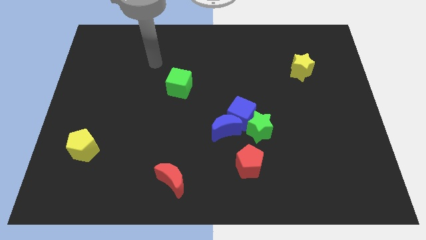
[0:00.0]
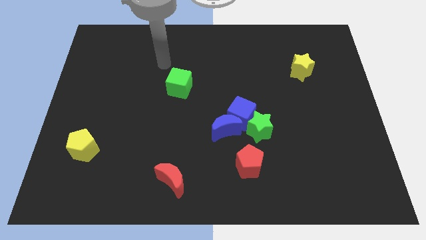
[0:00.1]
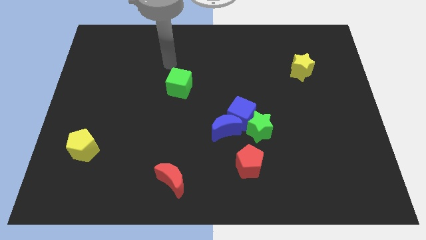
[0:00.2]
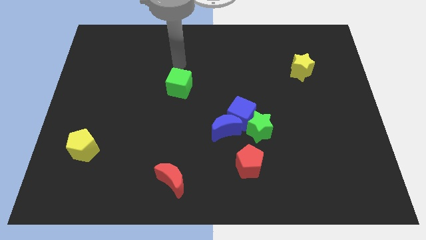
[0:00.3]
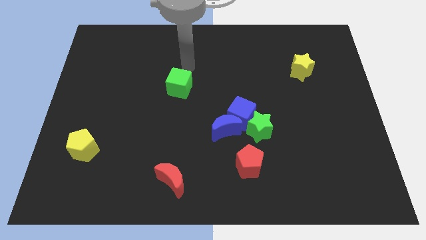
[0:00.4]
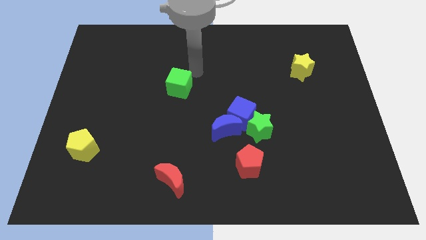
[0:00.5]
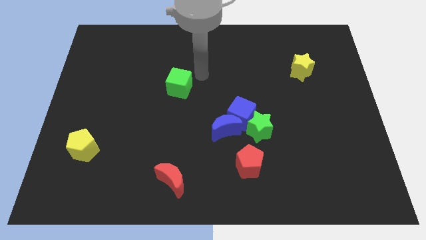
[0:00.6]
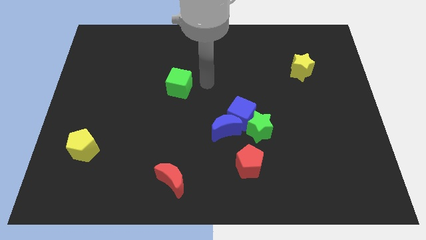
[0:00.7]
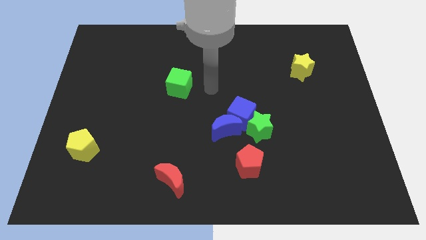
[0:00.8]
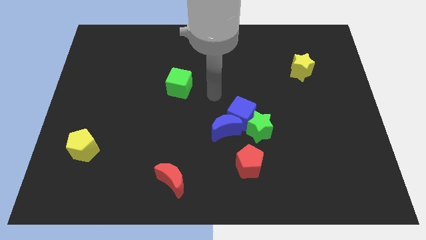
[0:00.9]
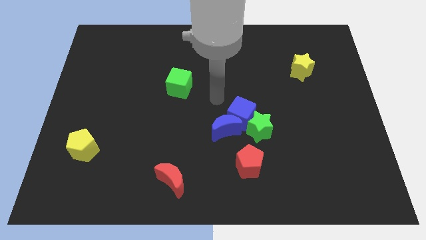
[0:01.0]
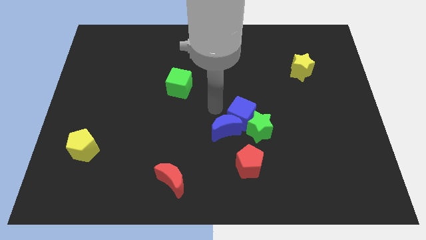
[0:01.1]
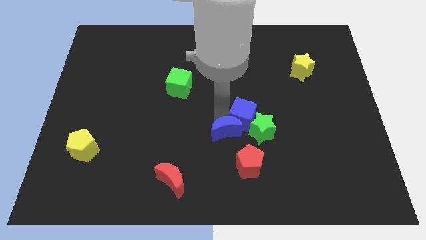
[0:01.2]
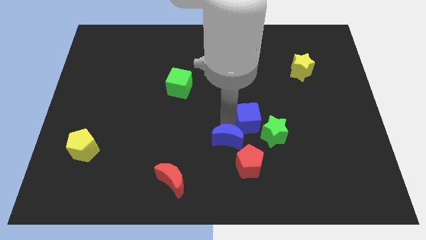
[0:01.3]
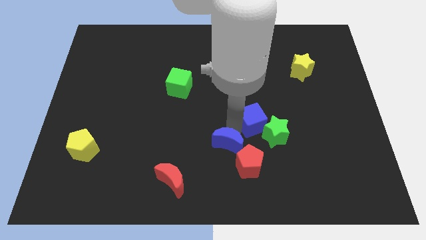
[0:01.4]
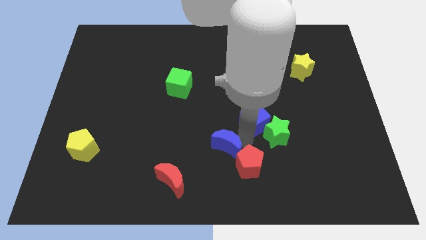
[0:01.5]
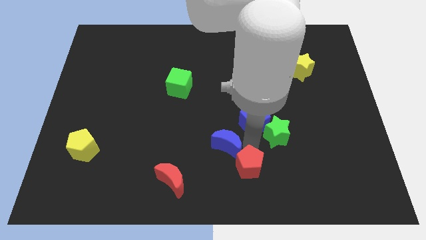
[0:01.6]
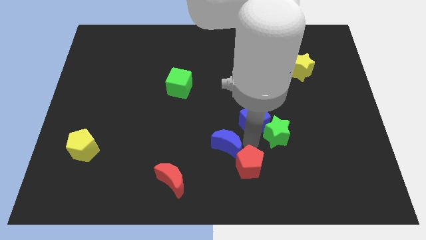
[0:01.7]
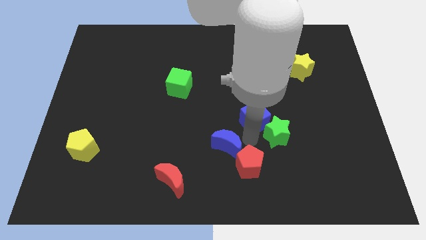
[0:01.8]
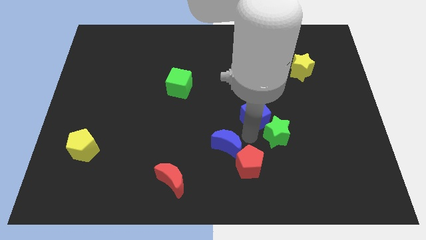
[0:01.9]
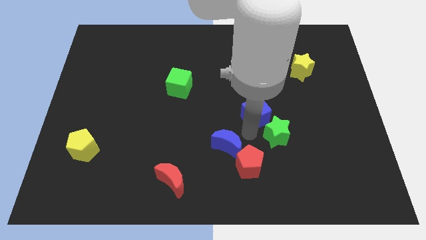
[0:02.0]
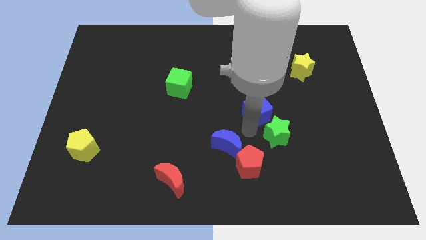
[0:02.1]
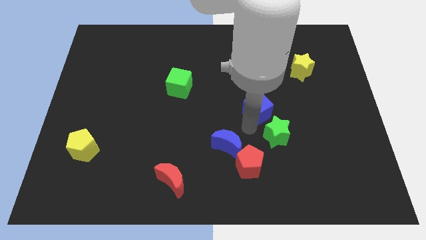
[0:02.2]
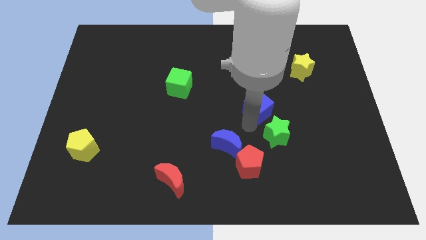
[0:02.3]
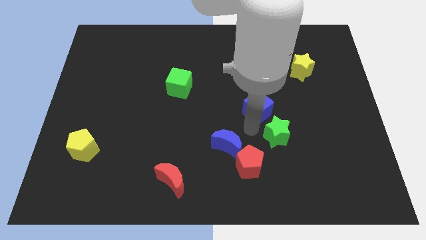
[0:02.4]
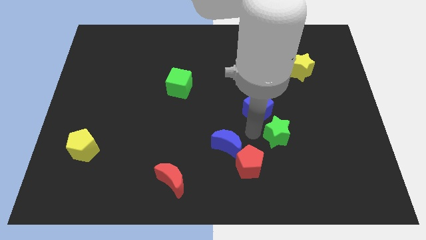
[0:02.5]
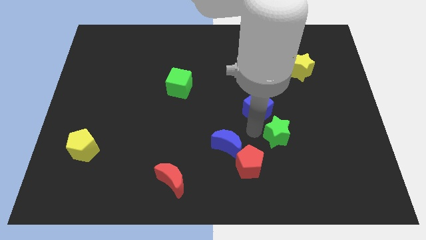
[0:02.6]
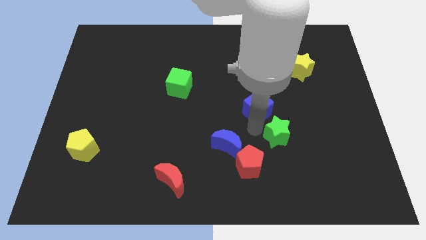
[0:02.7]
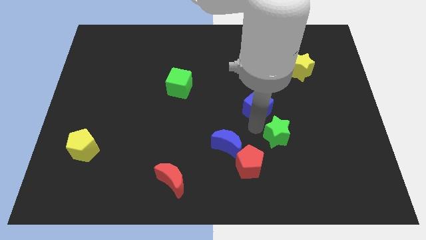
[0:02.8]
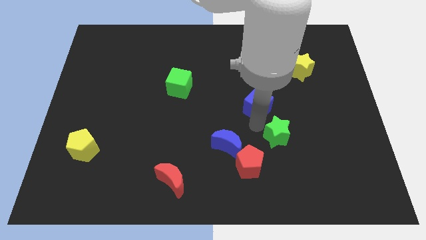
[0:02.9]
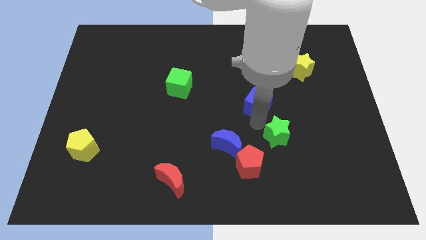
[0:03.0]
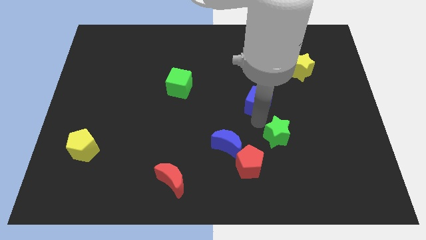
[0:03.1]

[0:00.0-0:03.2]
separate the blue cube from the blue moon and green star

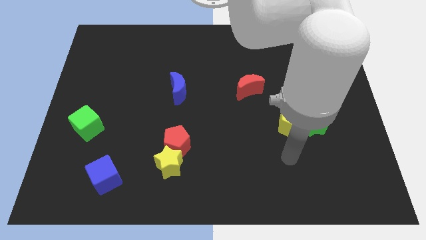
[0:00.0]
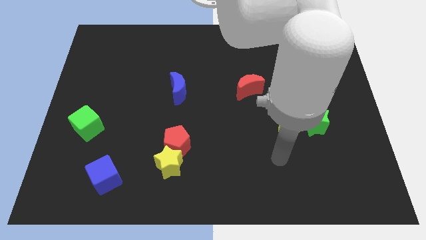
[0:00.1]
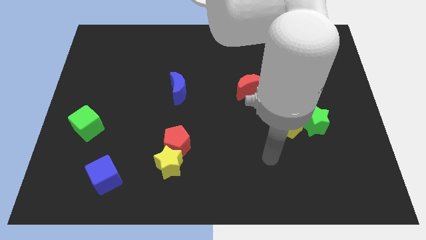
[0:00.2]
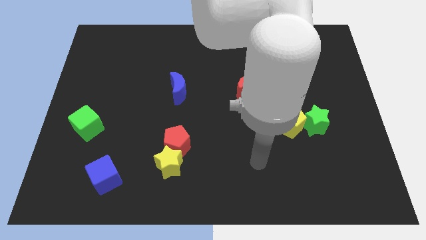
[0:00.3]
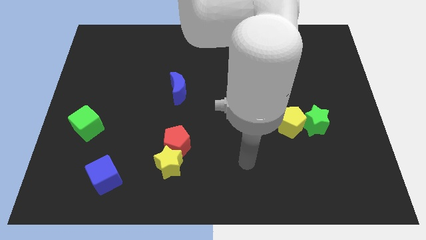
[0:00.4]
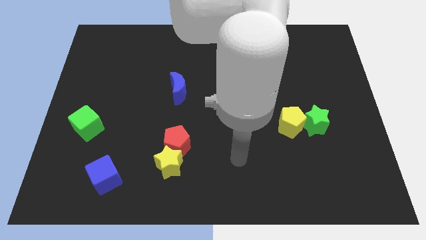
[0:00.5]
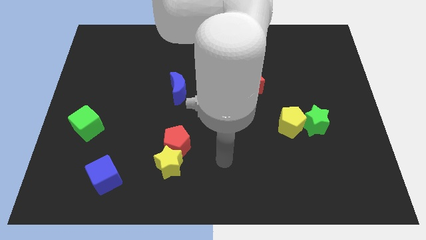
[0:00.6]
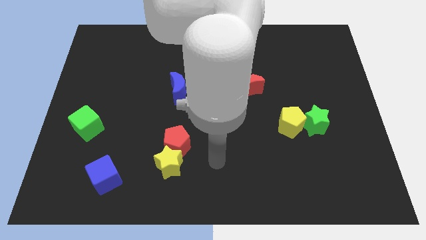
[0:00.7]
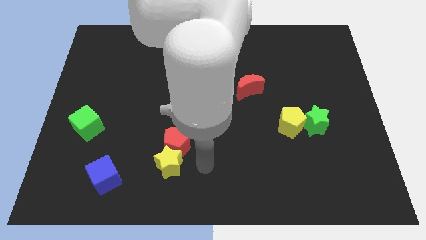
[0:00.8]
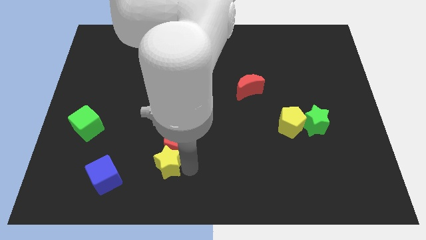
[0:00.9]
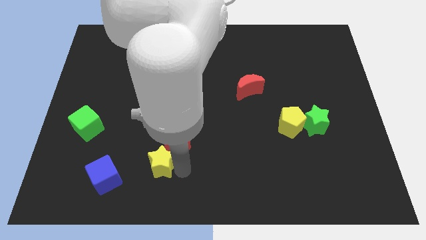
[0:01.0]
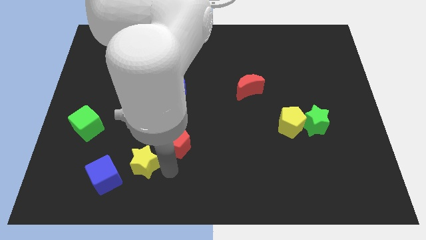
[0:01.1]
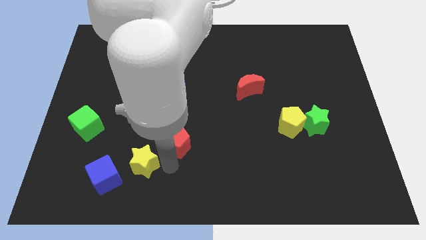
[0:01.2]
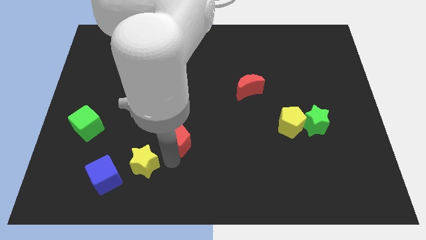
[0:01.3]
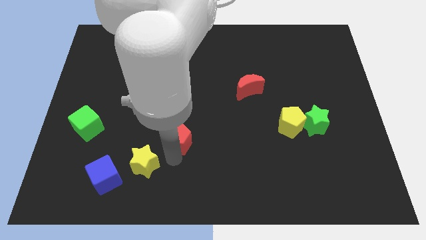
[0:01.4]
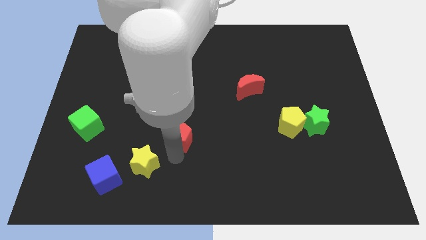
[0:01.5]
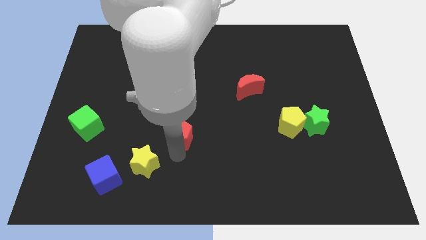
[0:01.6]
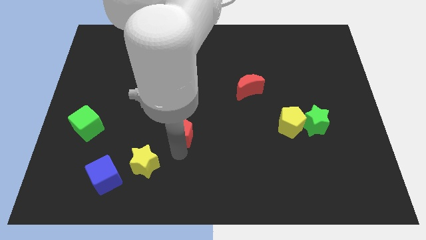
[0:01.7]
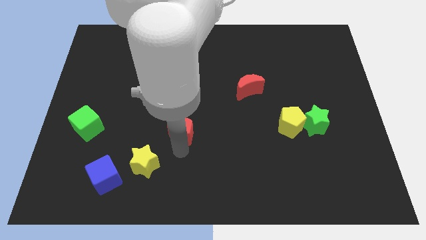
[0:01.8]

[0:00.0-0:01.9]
move the red pentagon away from the yellow star

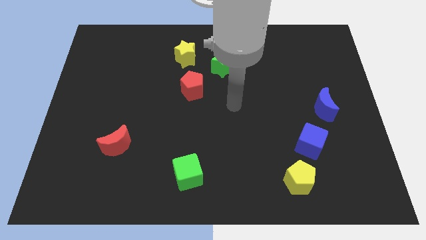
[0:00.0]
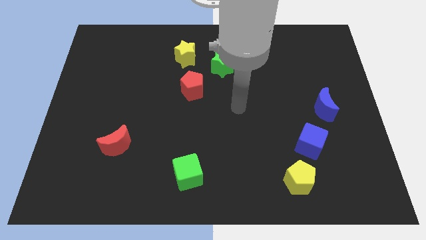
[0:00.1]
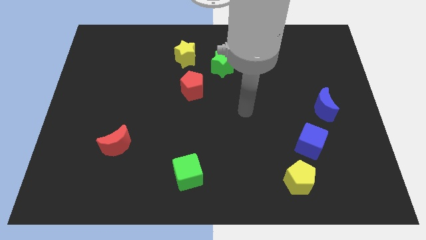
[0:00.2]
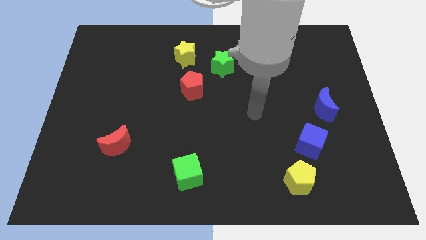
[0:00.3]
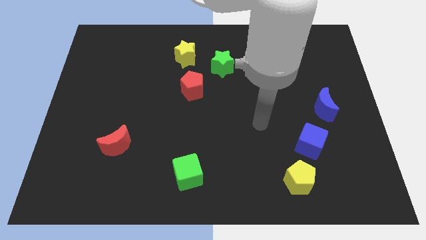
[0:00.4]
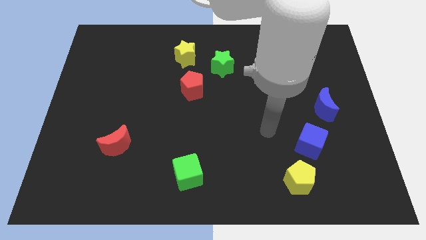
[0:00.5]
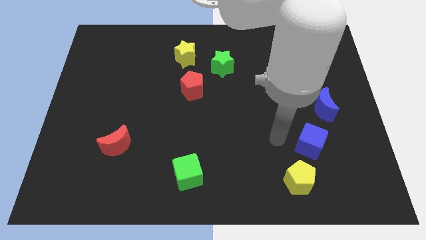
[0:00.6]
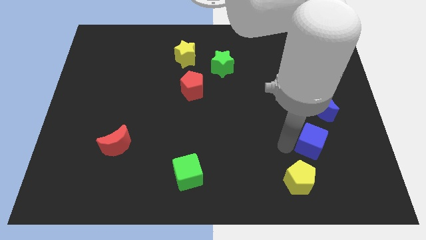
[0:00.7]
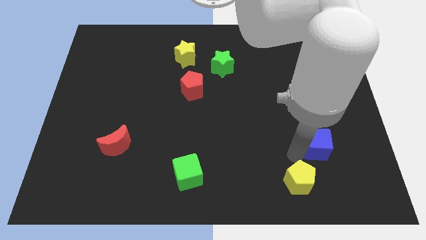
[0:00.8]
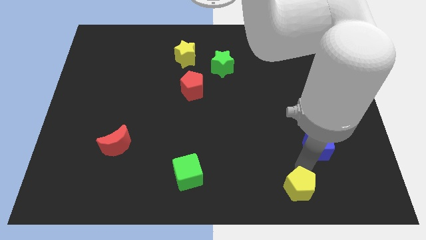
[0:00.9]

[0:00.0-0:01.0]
pull the blue cube apart from the yellow pentagon

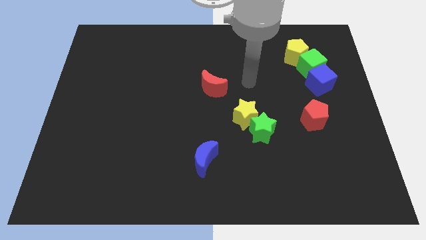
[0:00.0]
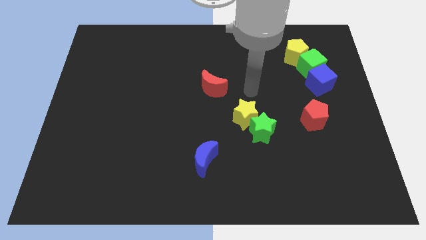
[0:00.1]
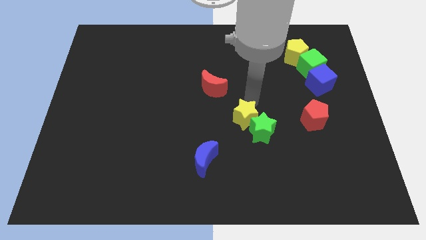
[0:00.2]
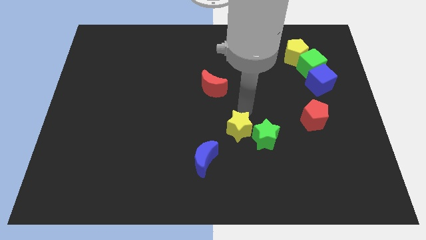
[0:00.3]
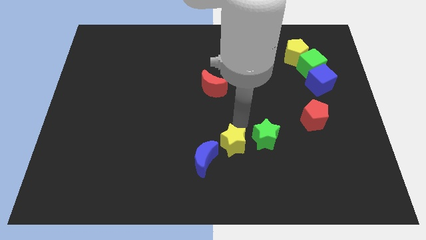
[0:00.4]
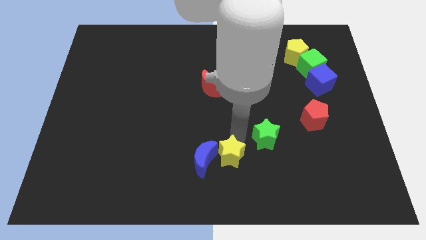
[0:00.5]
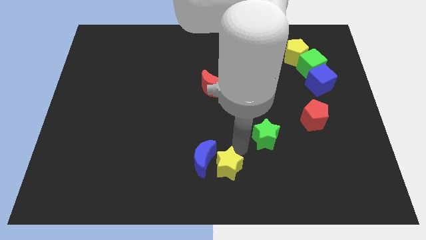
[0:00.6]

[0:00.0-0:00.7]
move the green star away from the yellow star

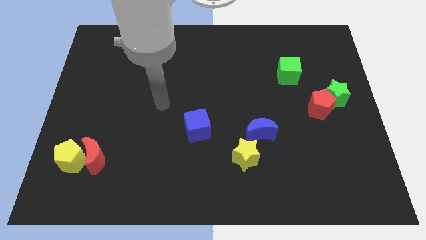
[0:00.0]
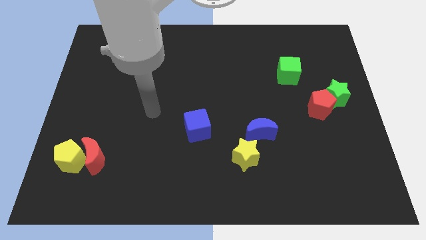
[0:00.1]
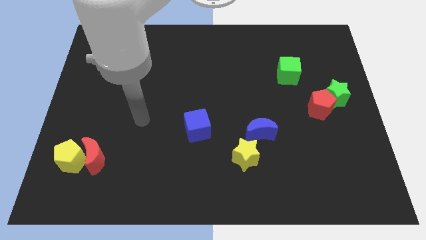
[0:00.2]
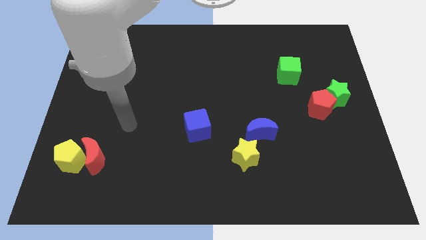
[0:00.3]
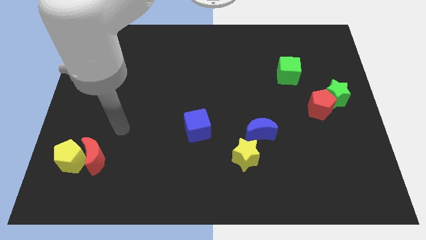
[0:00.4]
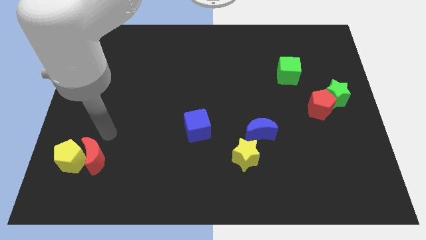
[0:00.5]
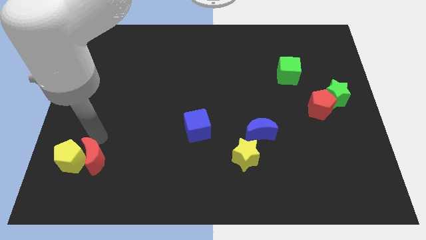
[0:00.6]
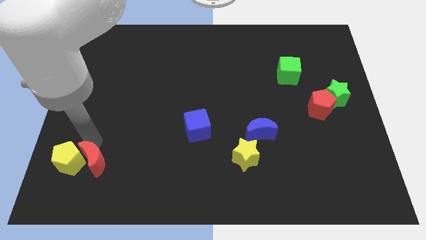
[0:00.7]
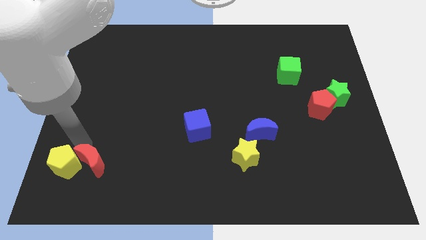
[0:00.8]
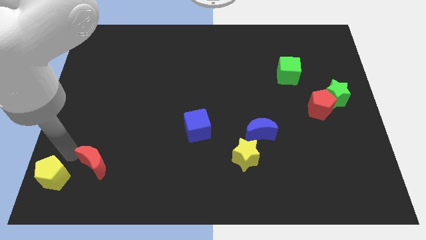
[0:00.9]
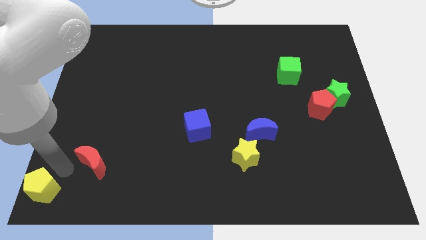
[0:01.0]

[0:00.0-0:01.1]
move the red moon away from the yellow pentagon

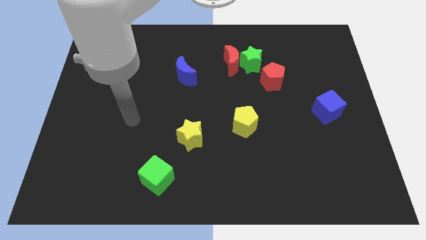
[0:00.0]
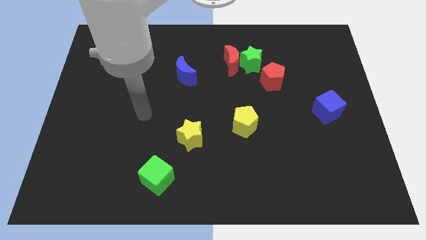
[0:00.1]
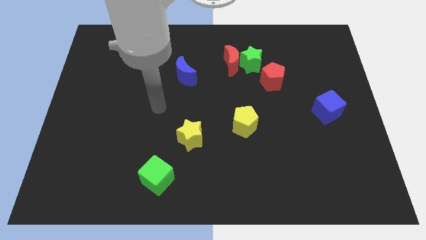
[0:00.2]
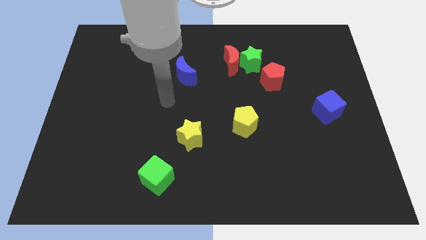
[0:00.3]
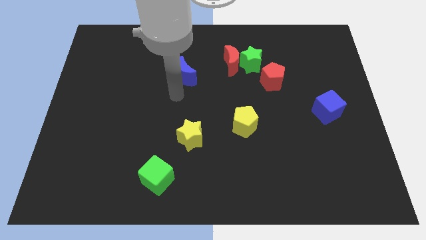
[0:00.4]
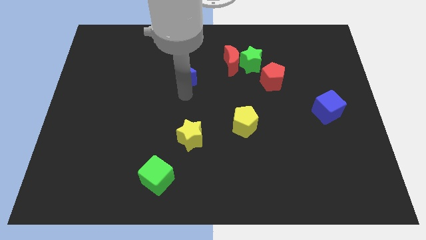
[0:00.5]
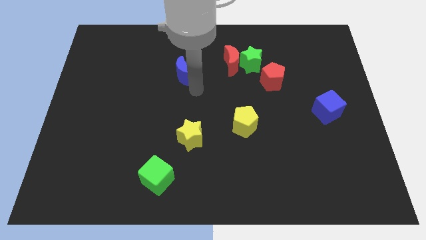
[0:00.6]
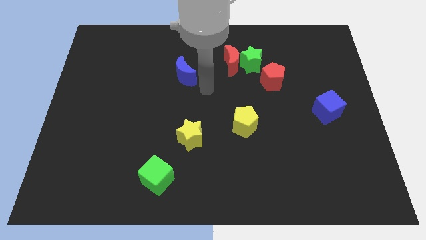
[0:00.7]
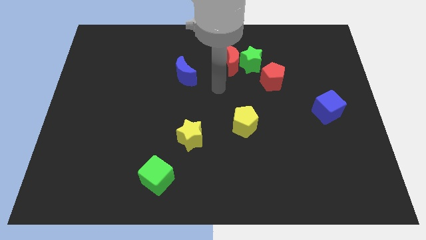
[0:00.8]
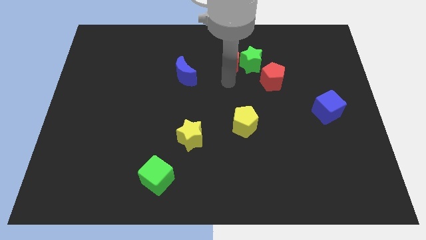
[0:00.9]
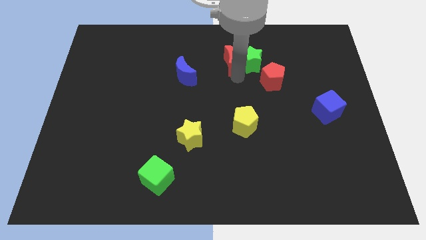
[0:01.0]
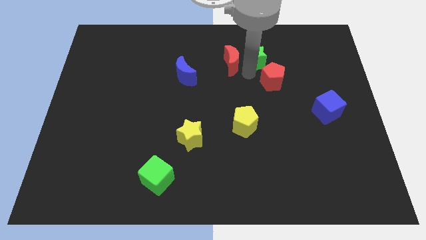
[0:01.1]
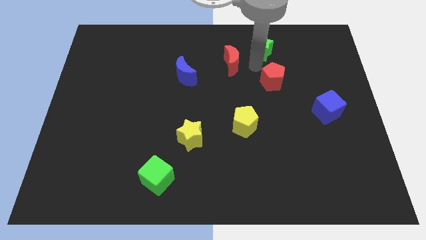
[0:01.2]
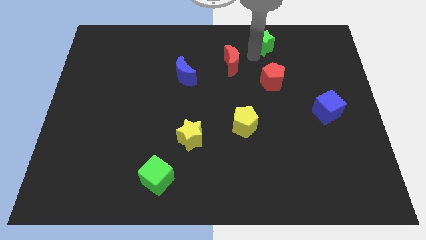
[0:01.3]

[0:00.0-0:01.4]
move the red moon away from the green star
